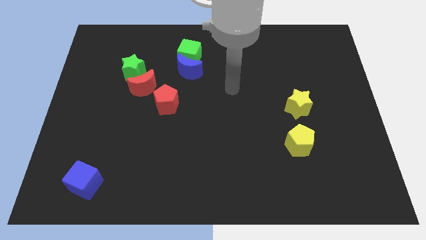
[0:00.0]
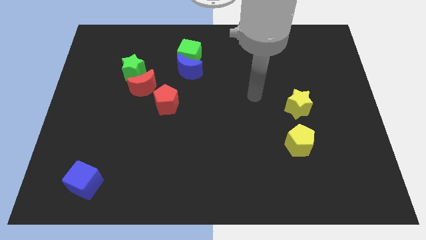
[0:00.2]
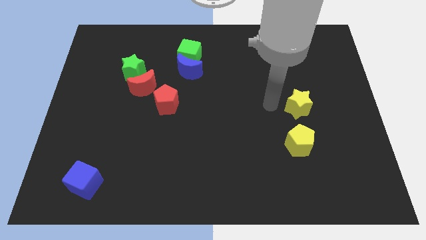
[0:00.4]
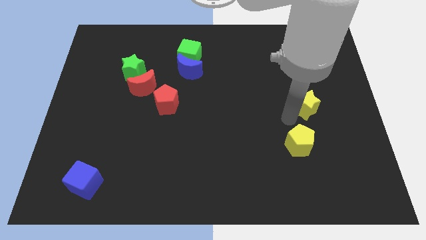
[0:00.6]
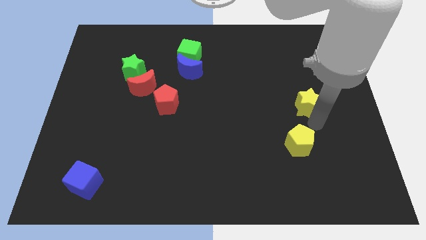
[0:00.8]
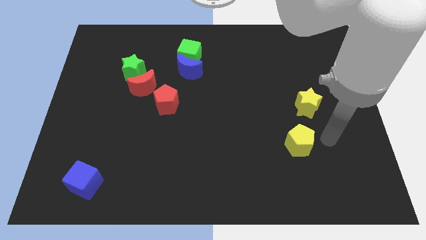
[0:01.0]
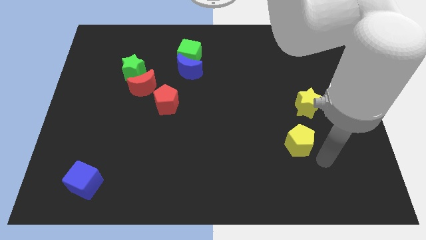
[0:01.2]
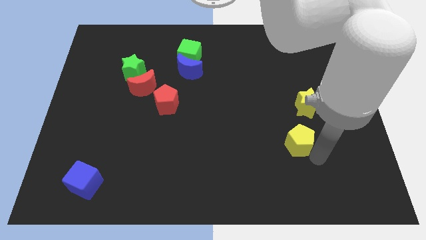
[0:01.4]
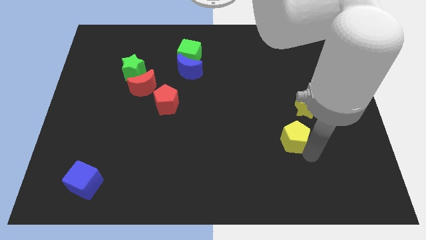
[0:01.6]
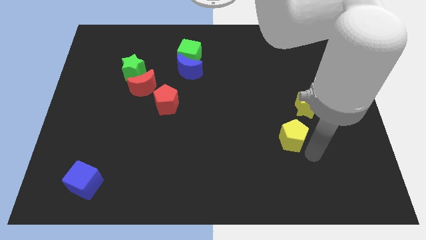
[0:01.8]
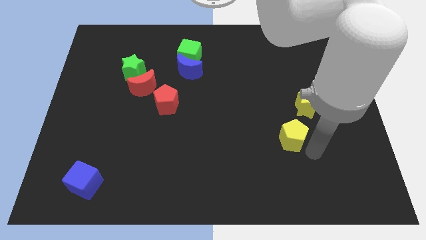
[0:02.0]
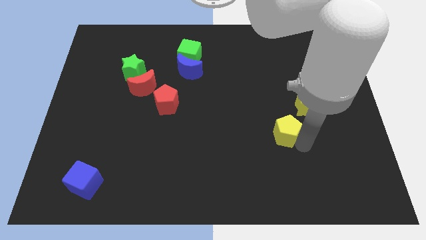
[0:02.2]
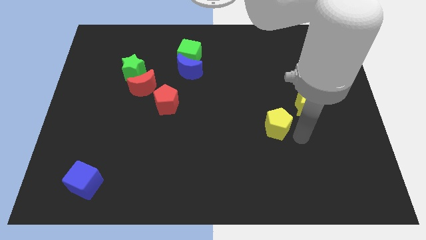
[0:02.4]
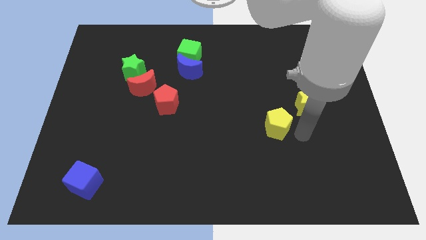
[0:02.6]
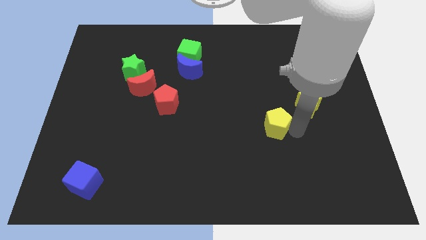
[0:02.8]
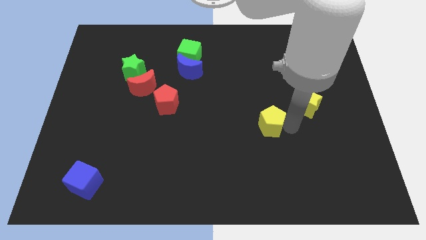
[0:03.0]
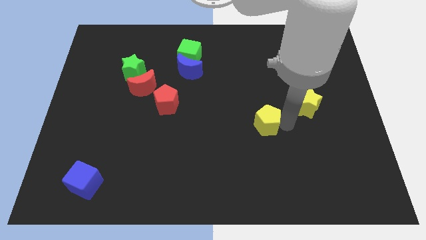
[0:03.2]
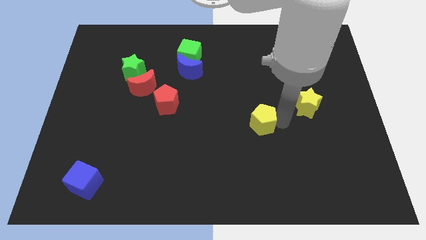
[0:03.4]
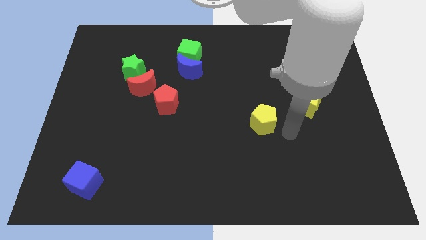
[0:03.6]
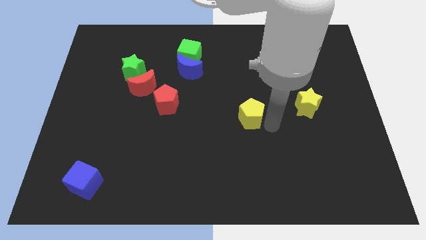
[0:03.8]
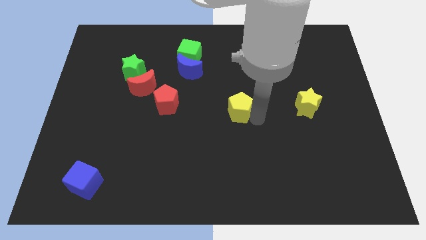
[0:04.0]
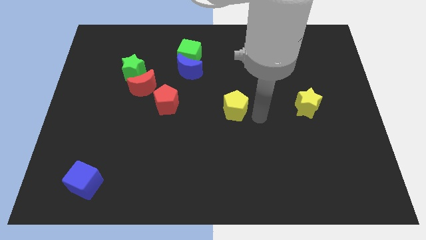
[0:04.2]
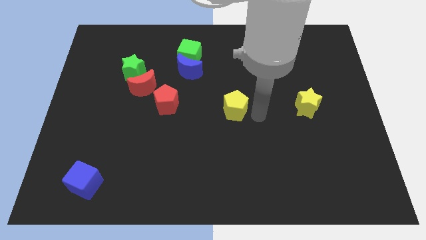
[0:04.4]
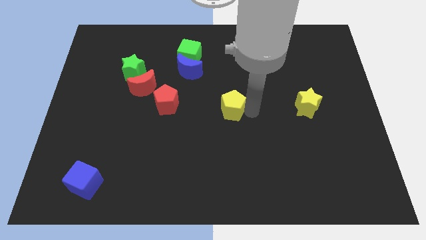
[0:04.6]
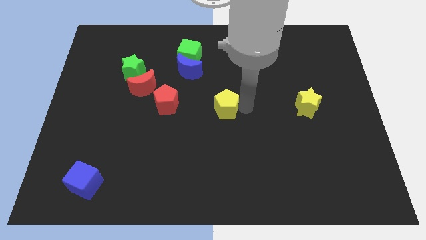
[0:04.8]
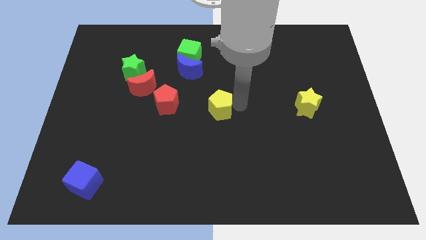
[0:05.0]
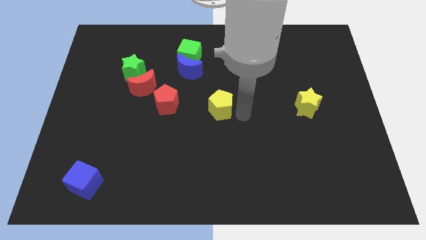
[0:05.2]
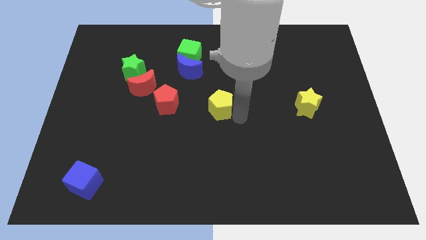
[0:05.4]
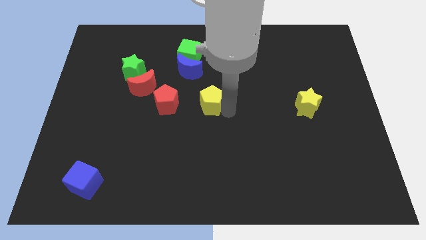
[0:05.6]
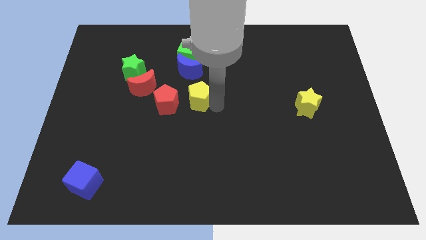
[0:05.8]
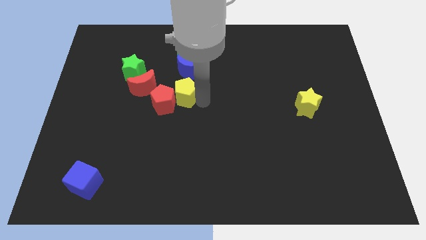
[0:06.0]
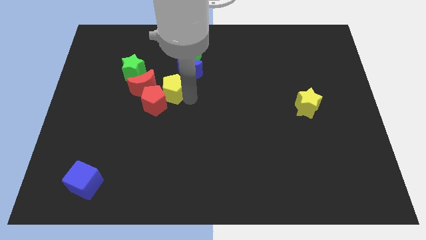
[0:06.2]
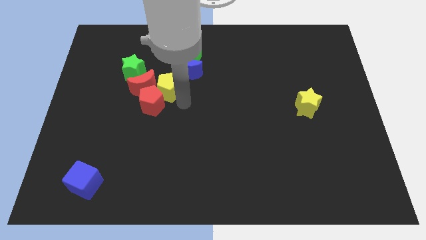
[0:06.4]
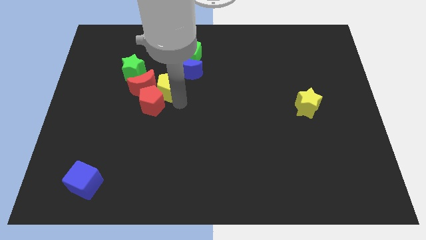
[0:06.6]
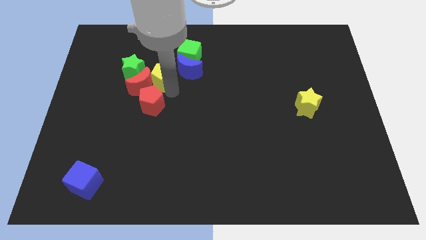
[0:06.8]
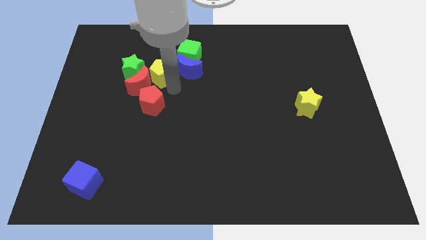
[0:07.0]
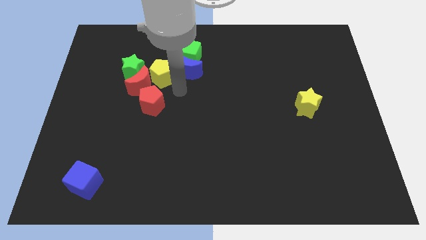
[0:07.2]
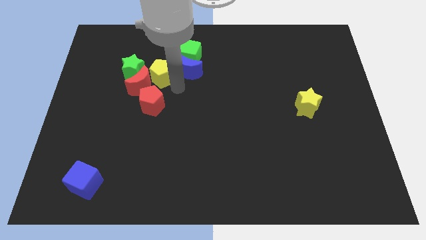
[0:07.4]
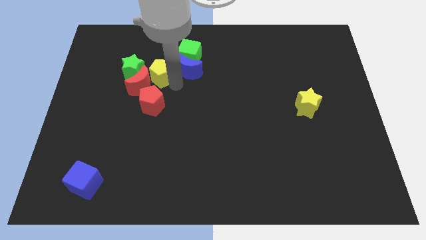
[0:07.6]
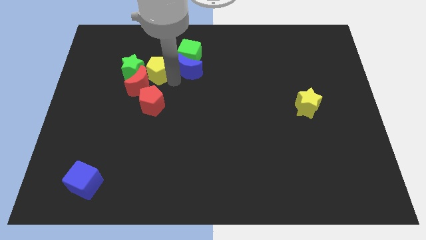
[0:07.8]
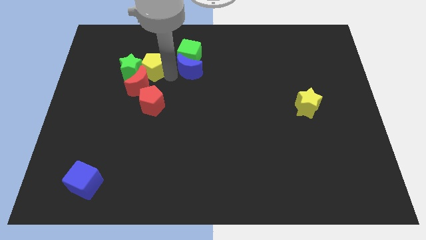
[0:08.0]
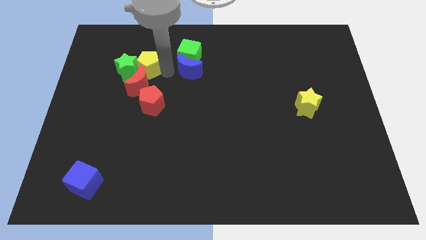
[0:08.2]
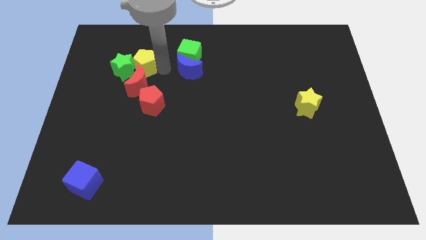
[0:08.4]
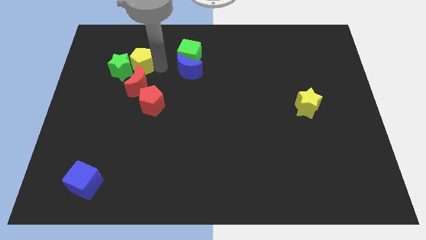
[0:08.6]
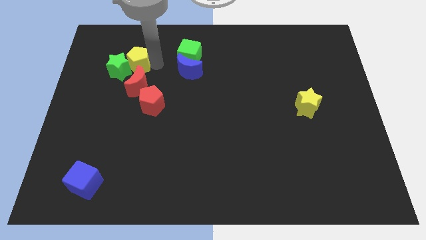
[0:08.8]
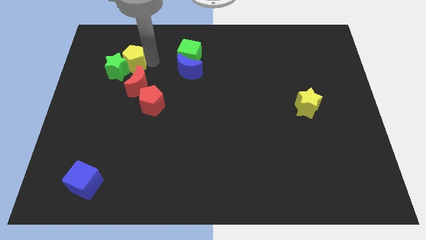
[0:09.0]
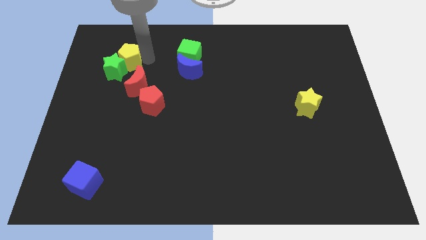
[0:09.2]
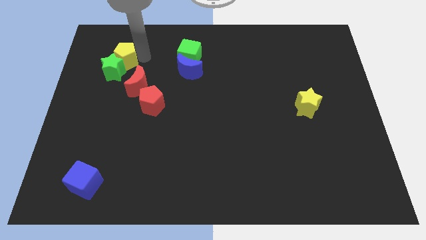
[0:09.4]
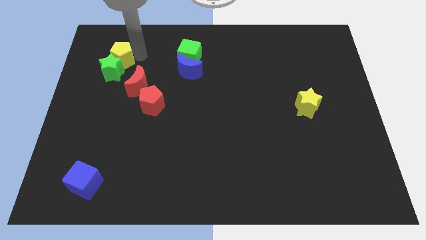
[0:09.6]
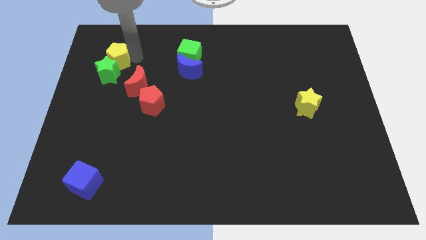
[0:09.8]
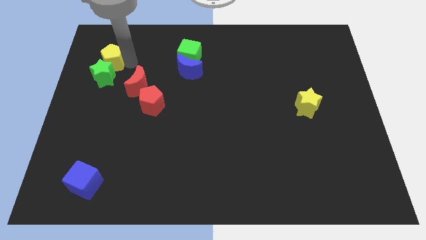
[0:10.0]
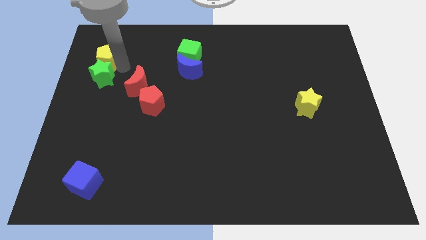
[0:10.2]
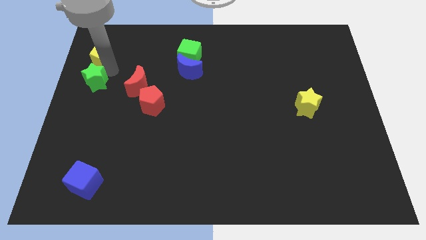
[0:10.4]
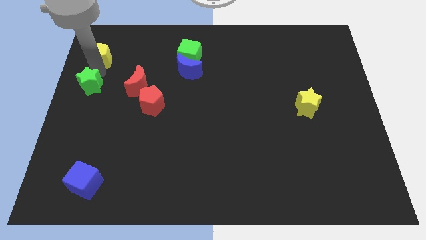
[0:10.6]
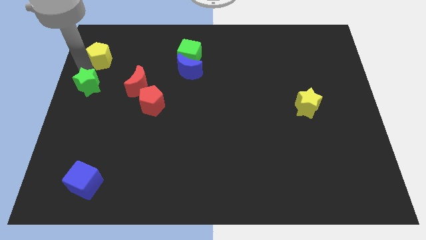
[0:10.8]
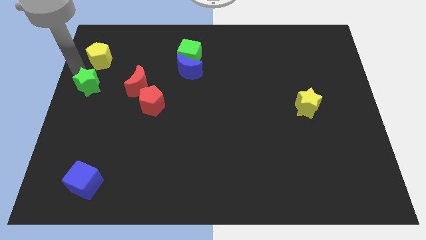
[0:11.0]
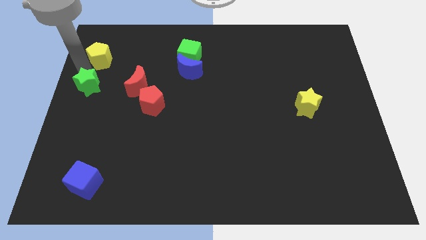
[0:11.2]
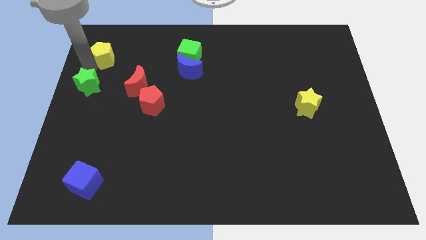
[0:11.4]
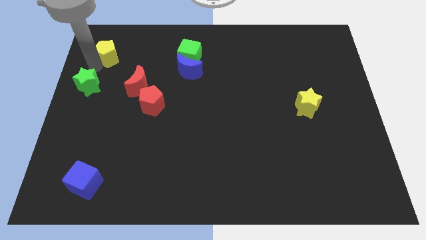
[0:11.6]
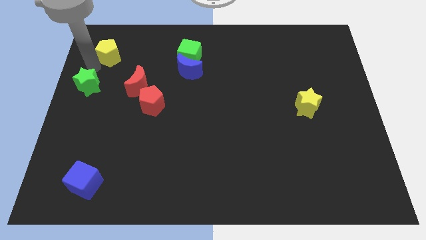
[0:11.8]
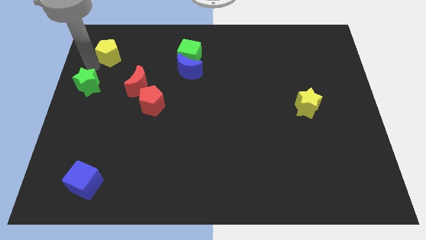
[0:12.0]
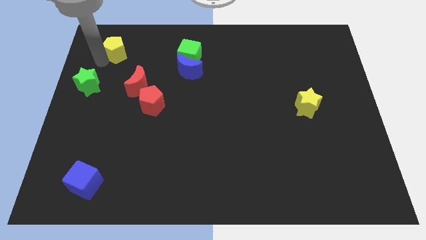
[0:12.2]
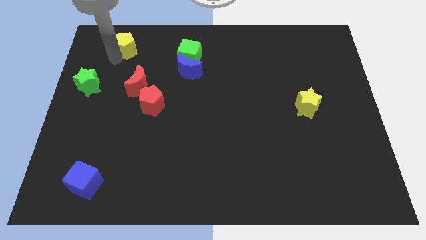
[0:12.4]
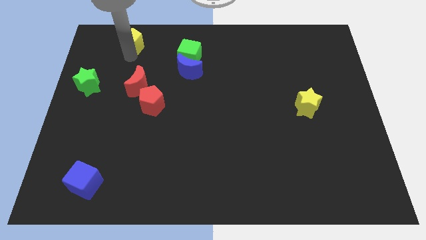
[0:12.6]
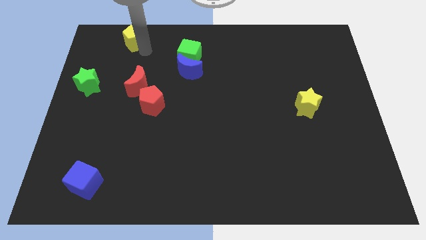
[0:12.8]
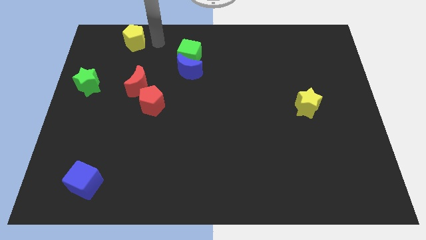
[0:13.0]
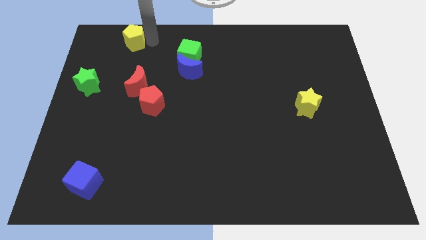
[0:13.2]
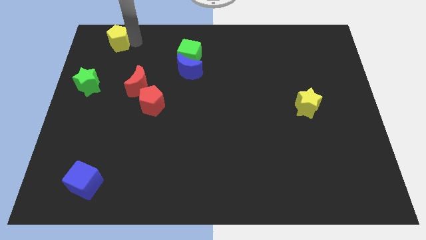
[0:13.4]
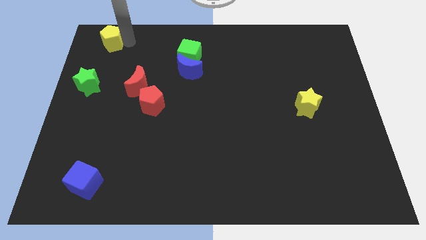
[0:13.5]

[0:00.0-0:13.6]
move the yellow pentagon to the top left

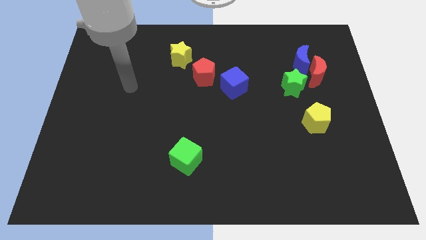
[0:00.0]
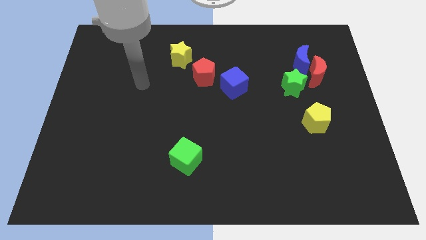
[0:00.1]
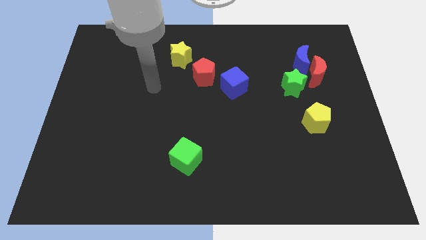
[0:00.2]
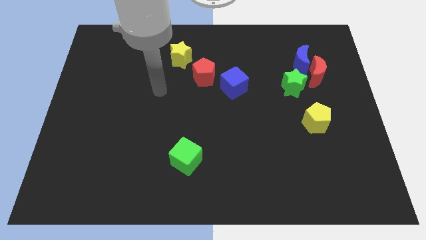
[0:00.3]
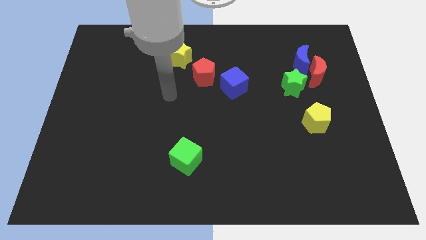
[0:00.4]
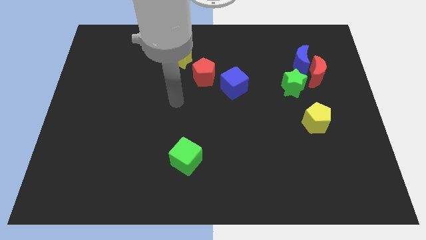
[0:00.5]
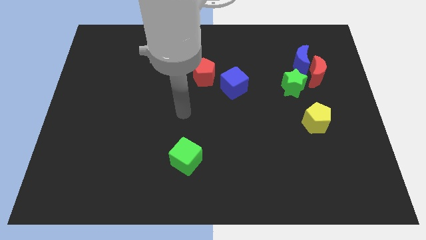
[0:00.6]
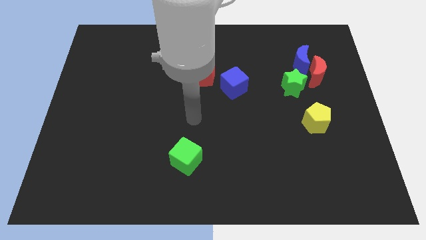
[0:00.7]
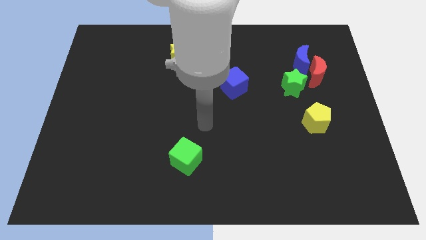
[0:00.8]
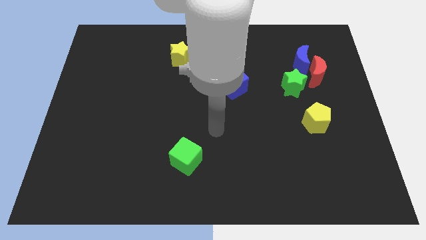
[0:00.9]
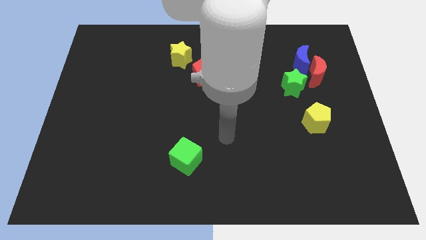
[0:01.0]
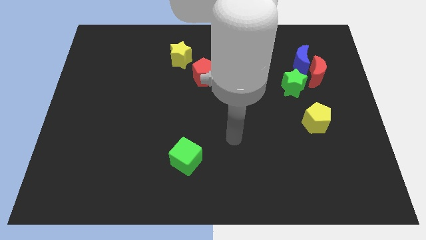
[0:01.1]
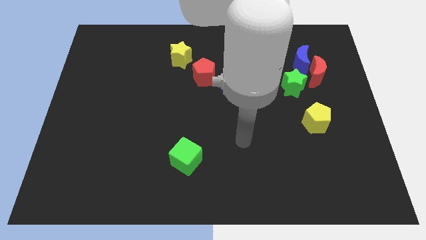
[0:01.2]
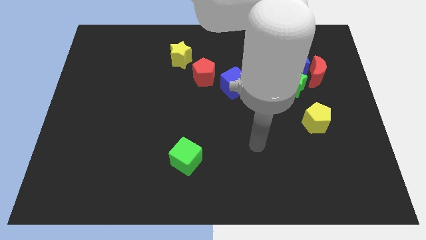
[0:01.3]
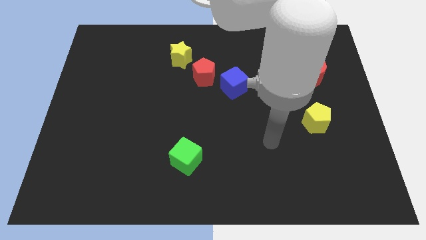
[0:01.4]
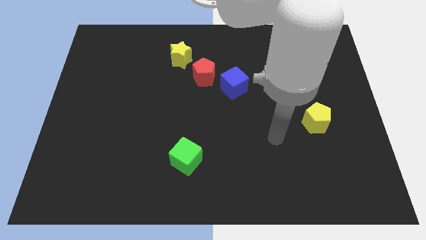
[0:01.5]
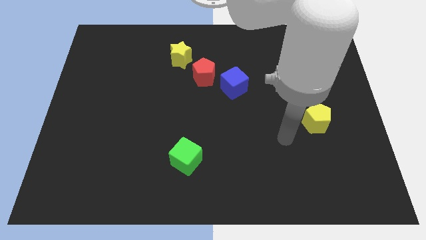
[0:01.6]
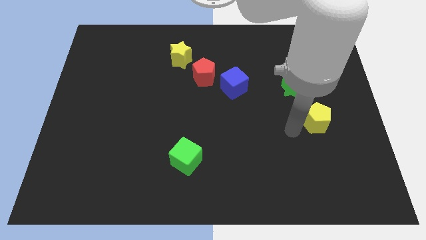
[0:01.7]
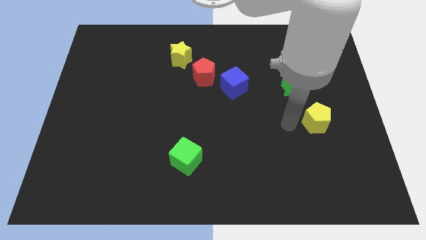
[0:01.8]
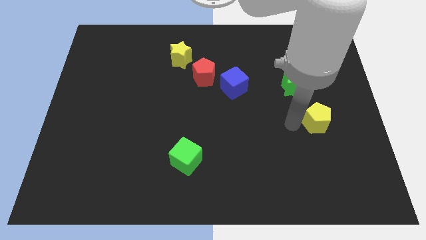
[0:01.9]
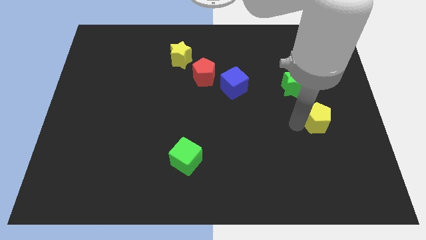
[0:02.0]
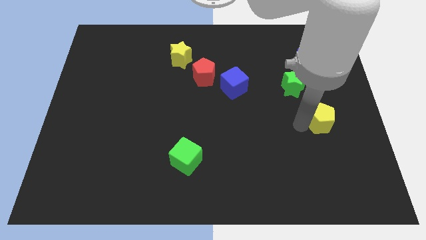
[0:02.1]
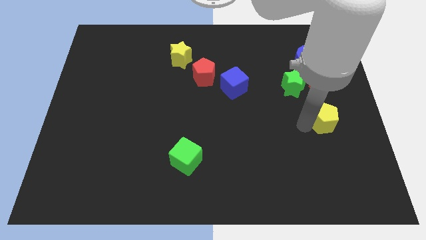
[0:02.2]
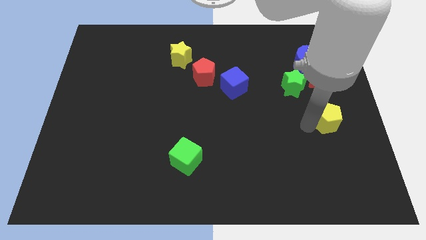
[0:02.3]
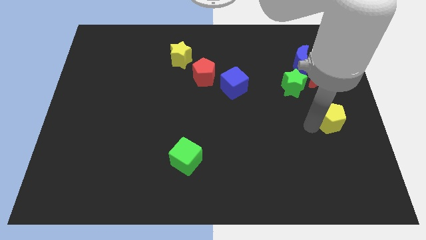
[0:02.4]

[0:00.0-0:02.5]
move the yellow pentagon to the right side
